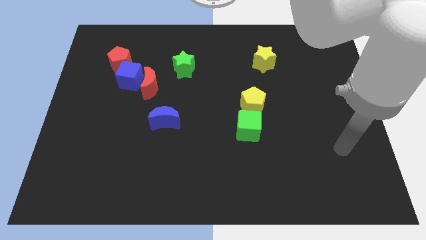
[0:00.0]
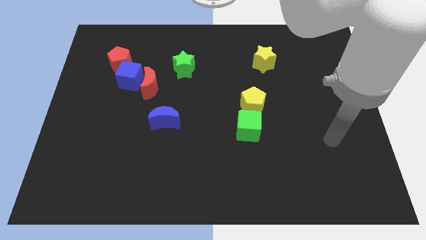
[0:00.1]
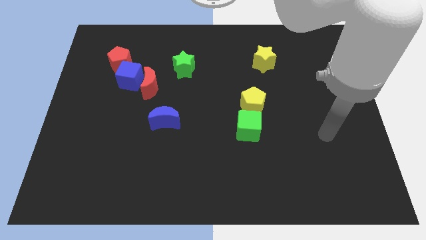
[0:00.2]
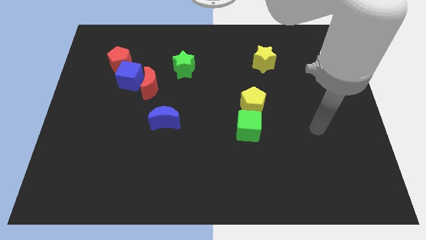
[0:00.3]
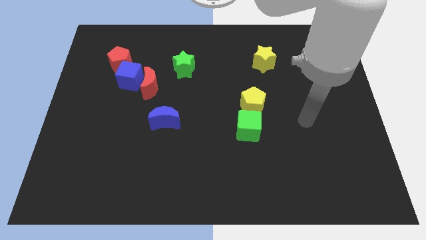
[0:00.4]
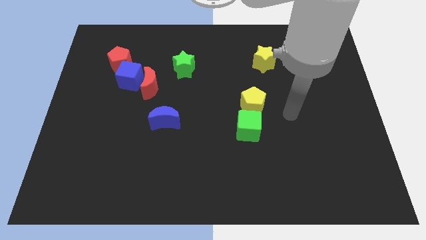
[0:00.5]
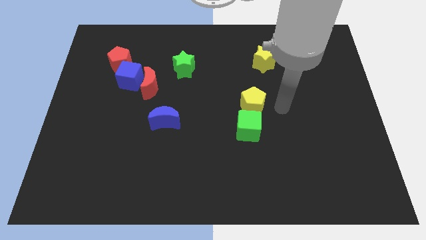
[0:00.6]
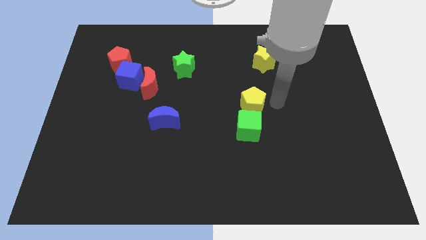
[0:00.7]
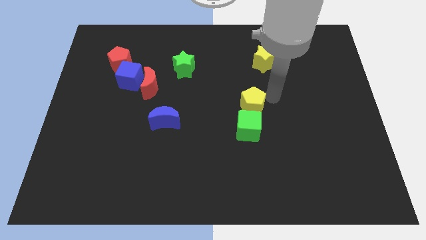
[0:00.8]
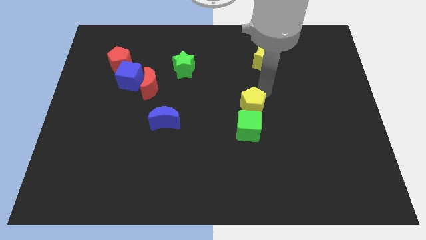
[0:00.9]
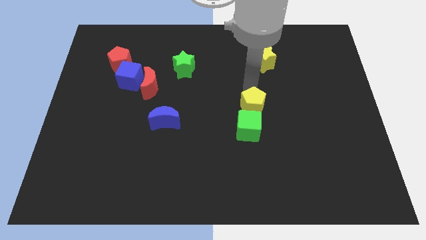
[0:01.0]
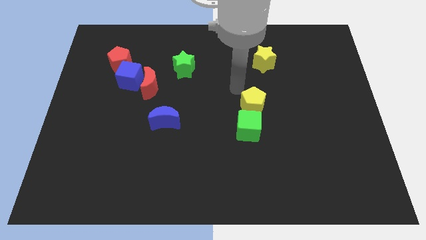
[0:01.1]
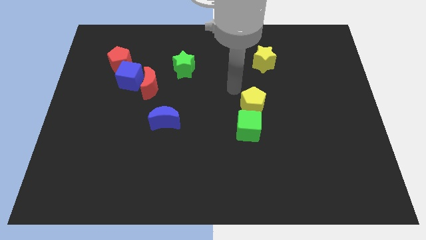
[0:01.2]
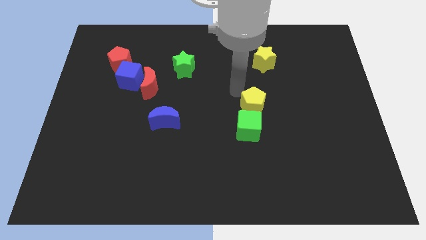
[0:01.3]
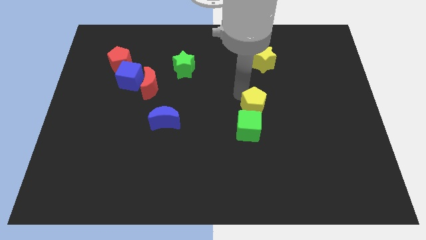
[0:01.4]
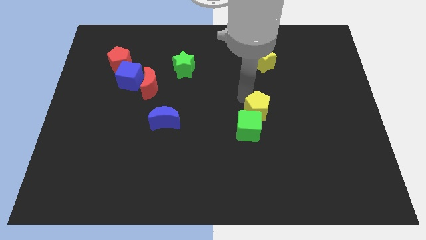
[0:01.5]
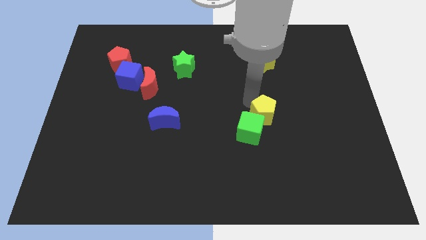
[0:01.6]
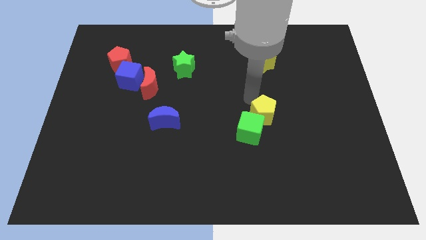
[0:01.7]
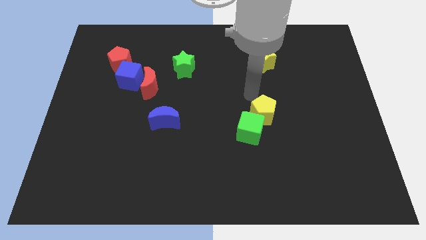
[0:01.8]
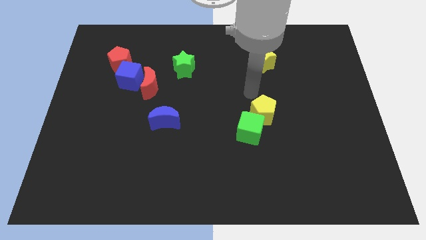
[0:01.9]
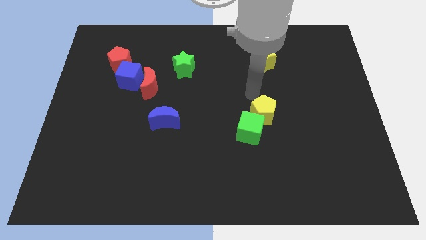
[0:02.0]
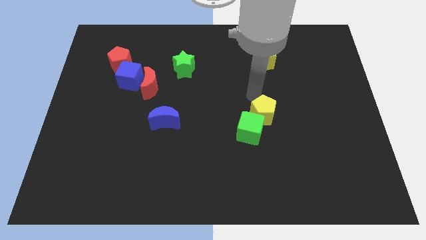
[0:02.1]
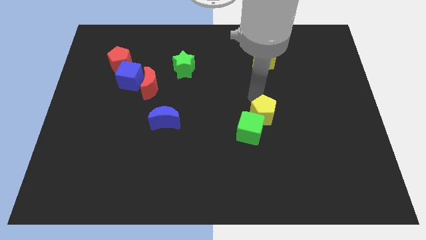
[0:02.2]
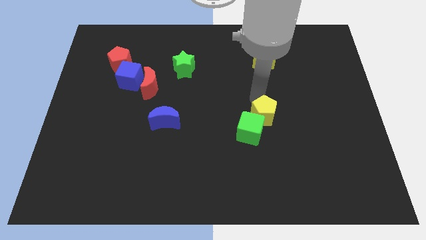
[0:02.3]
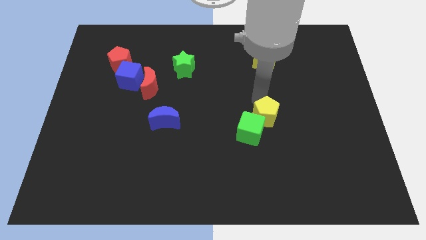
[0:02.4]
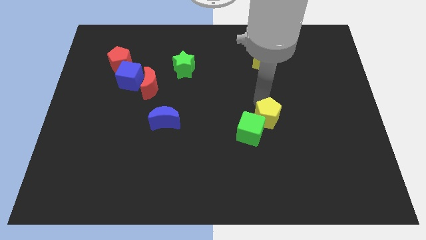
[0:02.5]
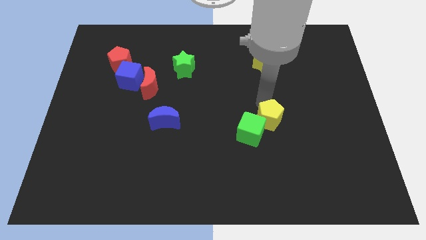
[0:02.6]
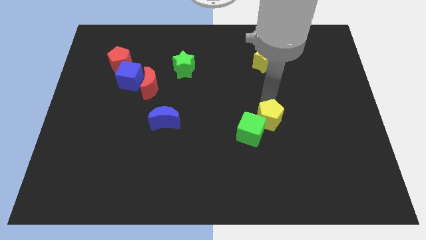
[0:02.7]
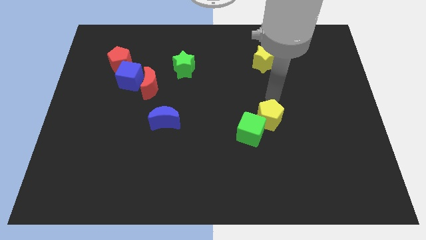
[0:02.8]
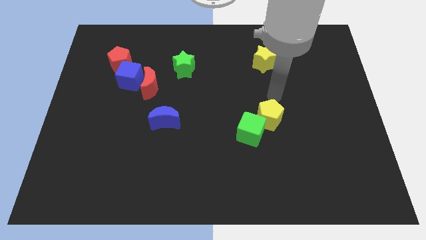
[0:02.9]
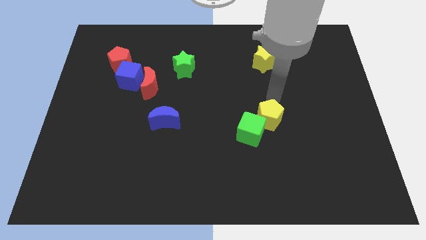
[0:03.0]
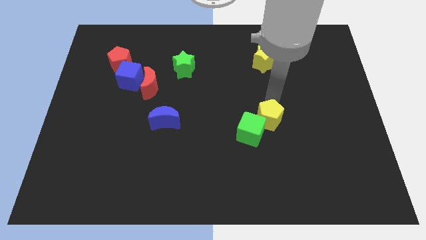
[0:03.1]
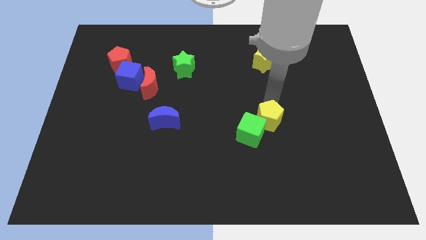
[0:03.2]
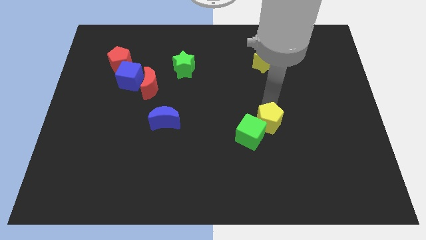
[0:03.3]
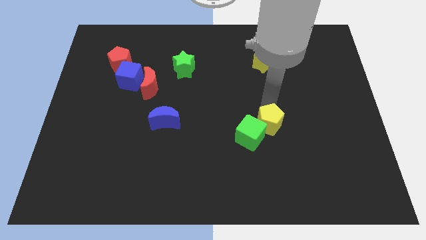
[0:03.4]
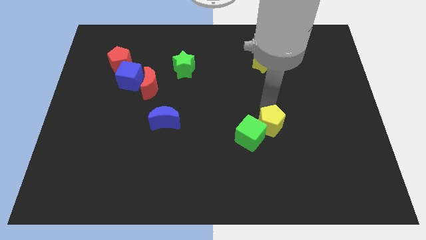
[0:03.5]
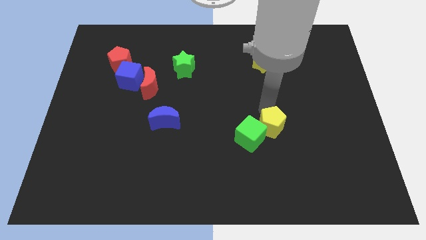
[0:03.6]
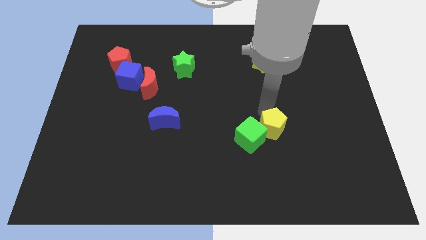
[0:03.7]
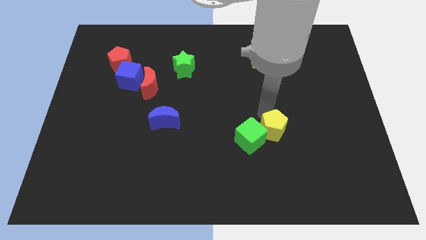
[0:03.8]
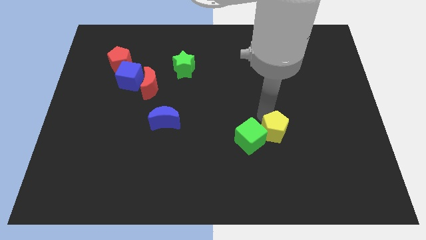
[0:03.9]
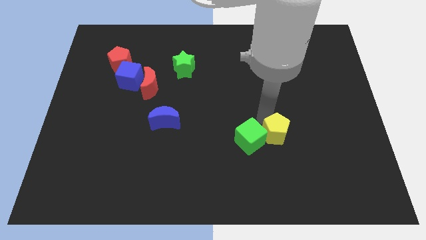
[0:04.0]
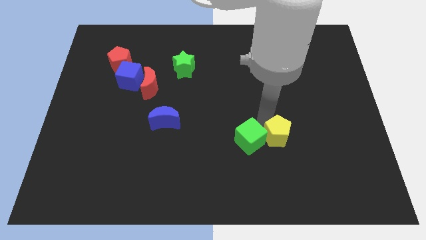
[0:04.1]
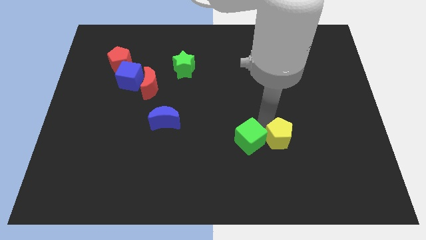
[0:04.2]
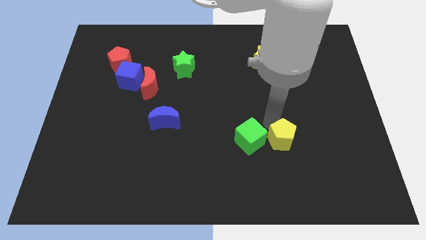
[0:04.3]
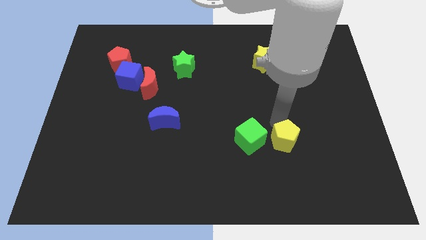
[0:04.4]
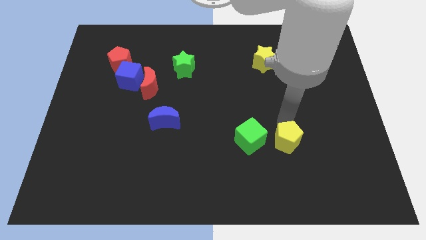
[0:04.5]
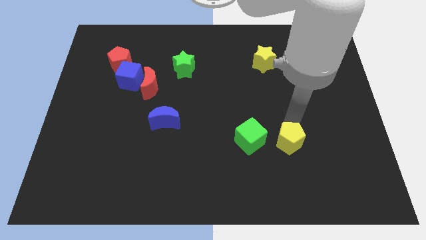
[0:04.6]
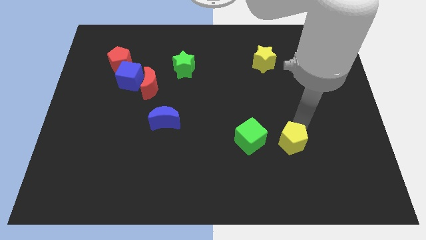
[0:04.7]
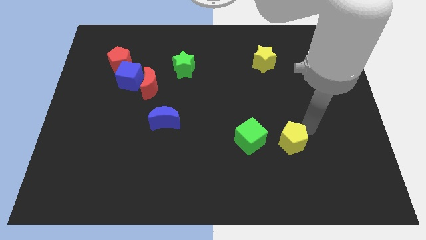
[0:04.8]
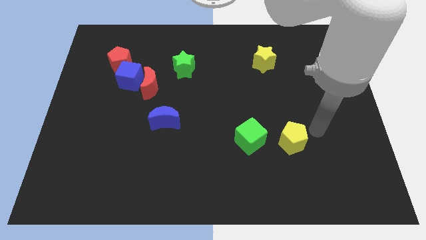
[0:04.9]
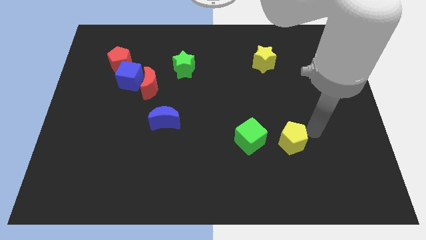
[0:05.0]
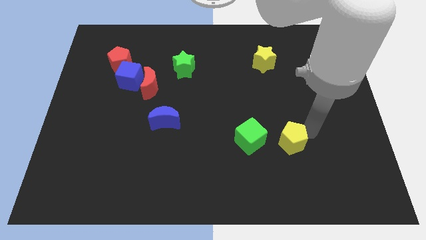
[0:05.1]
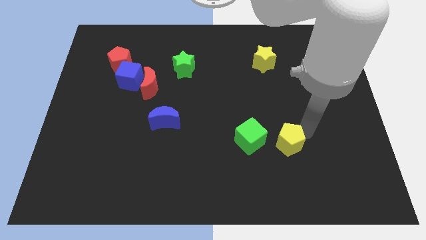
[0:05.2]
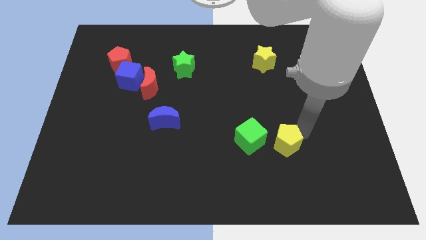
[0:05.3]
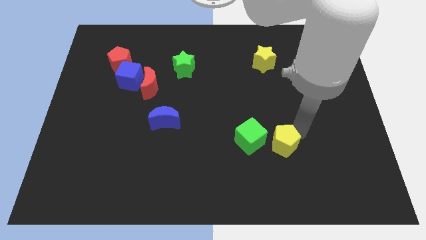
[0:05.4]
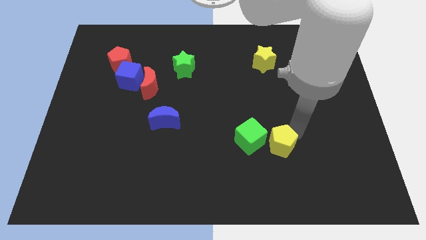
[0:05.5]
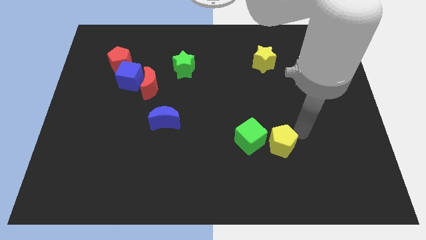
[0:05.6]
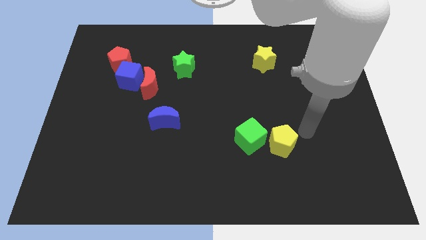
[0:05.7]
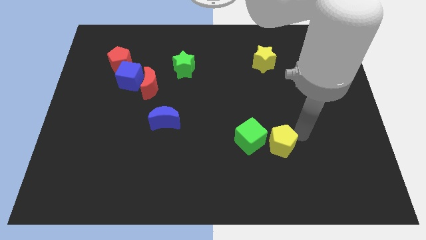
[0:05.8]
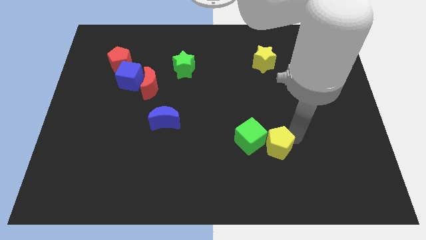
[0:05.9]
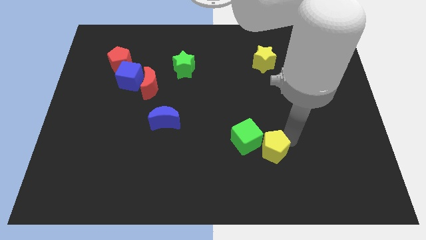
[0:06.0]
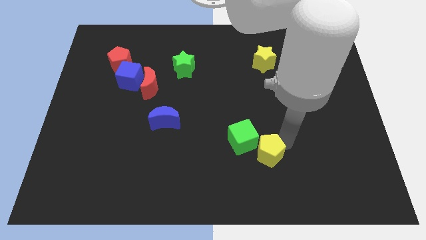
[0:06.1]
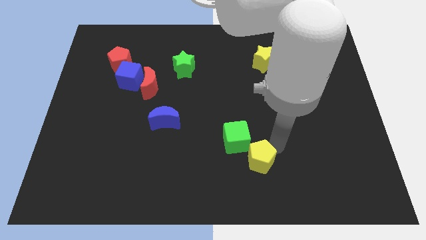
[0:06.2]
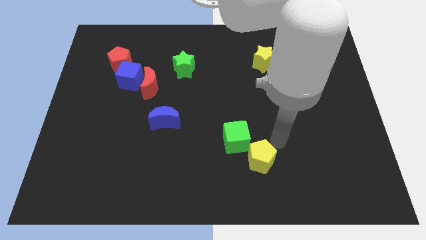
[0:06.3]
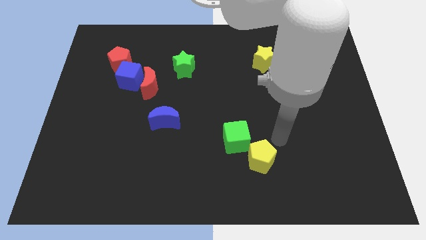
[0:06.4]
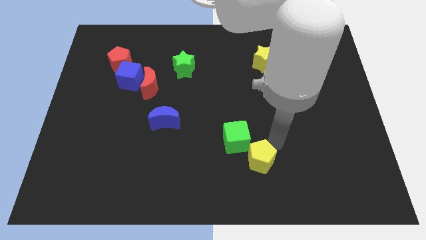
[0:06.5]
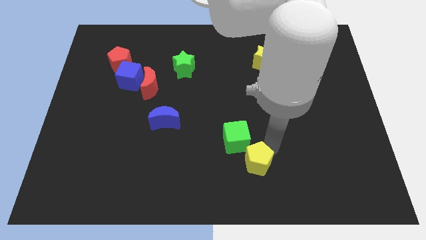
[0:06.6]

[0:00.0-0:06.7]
push the yellow pentagon to the bottom of the green cube

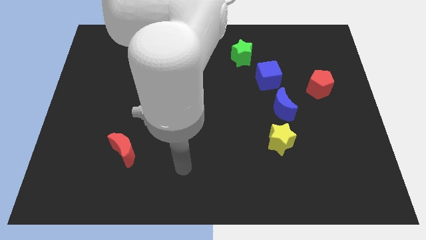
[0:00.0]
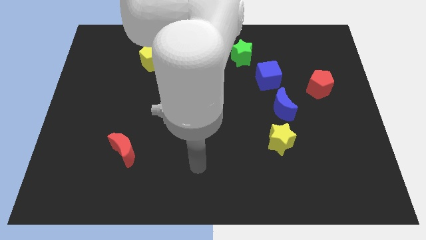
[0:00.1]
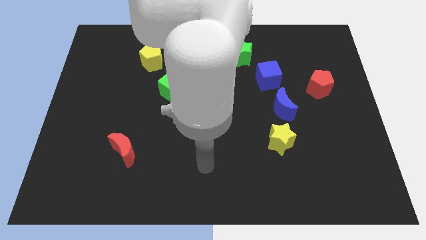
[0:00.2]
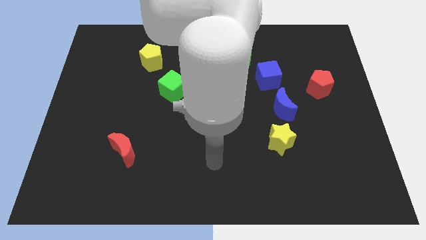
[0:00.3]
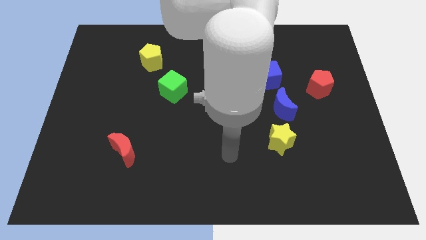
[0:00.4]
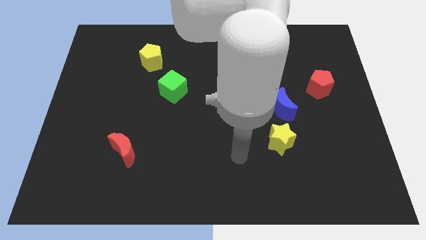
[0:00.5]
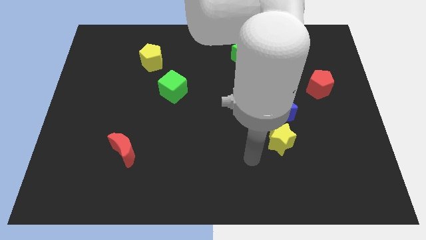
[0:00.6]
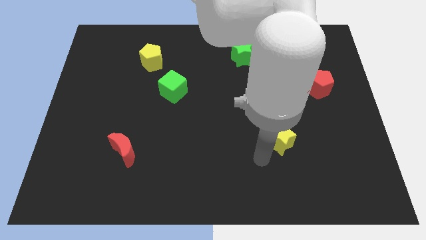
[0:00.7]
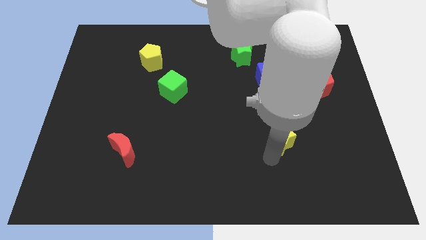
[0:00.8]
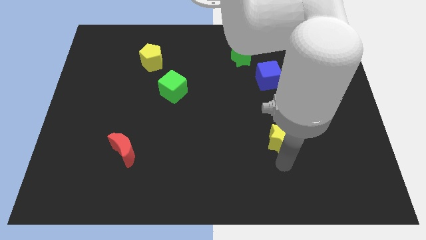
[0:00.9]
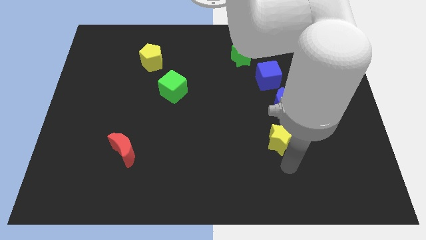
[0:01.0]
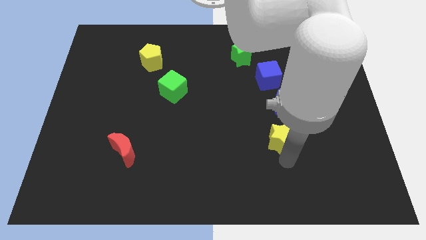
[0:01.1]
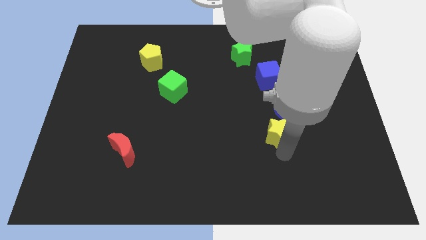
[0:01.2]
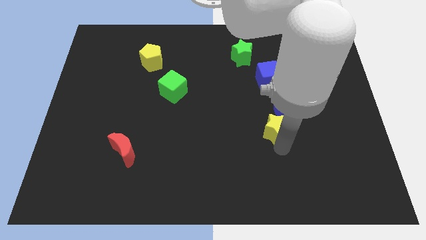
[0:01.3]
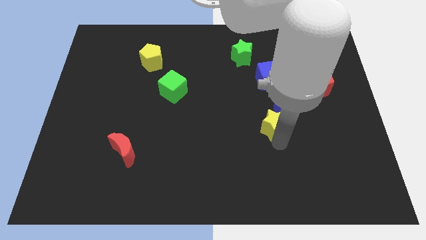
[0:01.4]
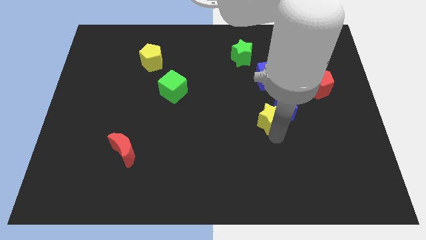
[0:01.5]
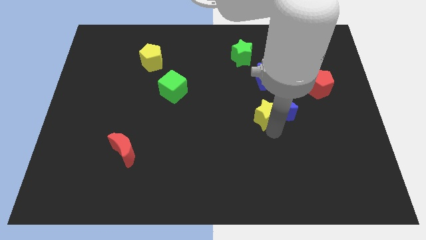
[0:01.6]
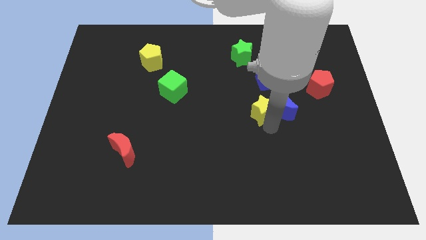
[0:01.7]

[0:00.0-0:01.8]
push the yellow star diagonally up and to the left of the blue moon
